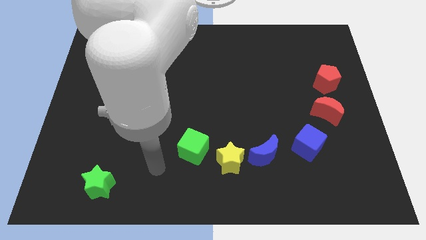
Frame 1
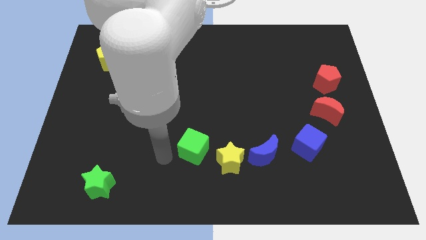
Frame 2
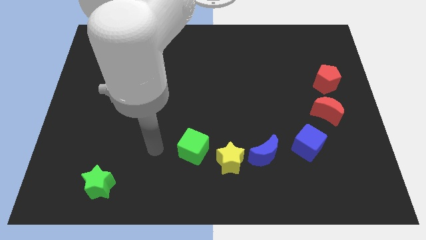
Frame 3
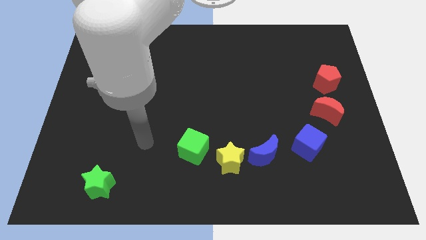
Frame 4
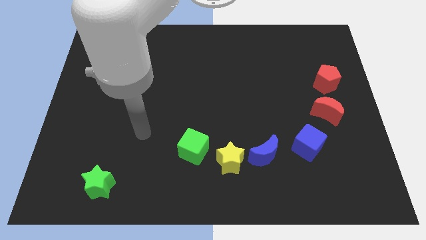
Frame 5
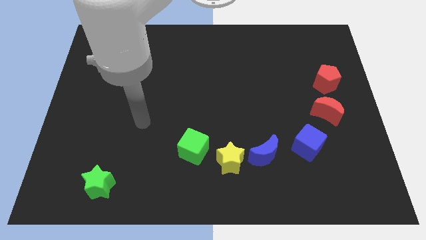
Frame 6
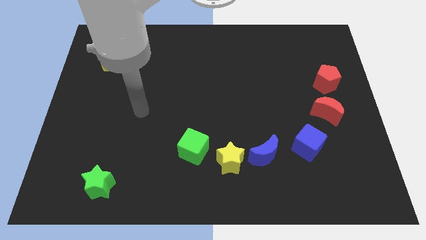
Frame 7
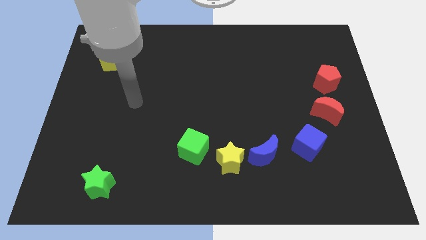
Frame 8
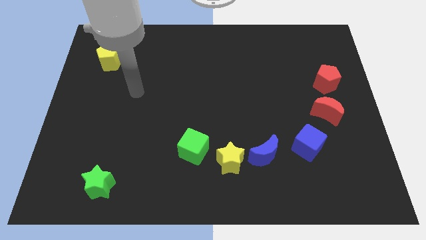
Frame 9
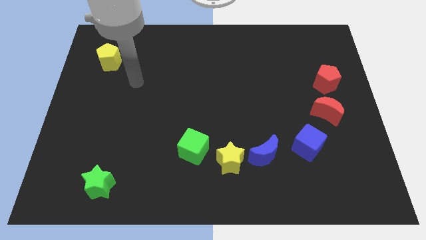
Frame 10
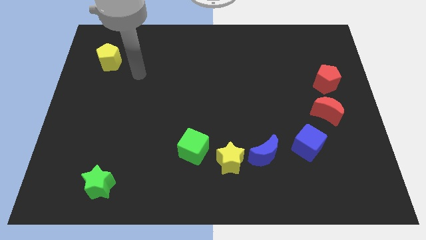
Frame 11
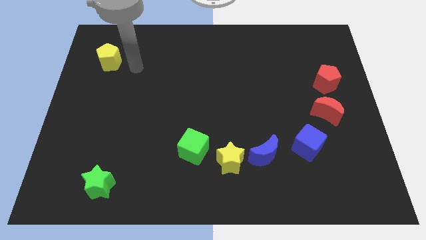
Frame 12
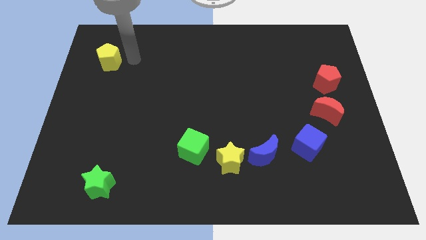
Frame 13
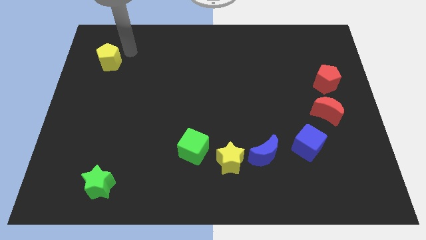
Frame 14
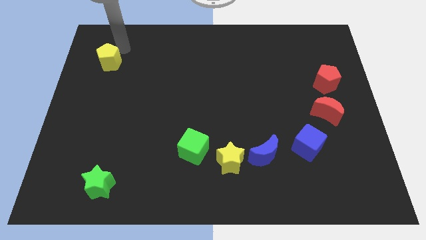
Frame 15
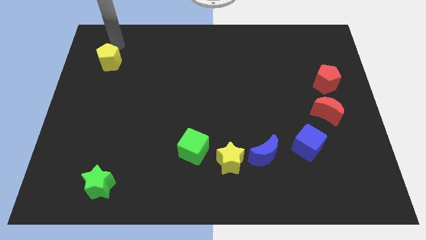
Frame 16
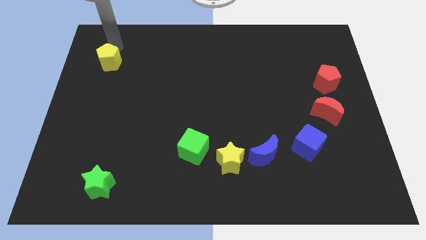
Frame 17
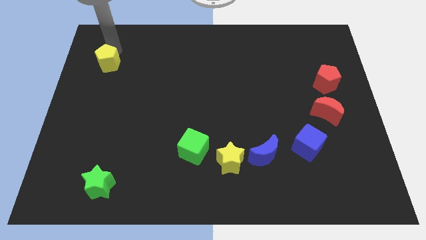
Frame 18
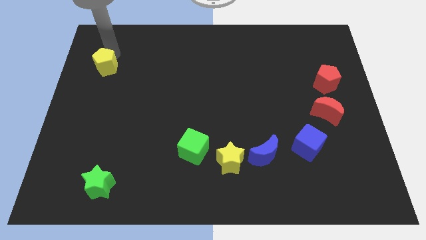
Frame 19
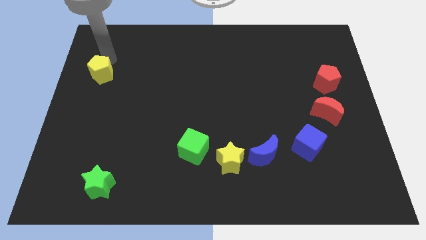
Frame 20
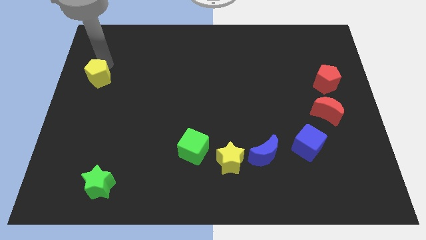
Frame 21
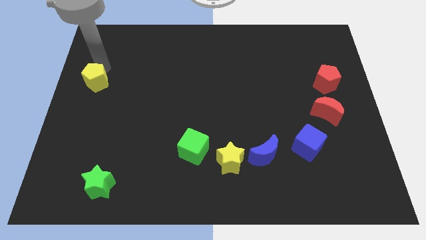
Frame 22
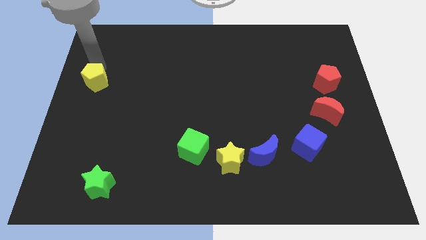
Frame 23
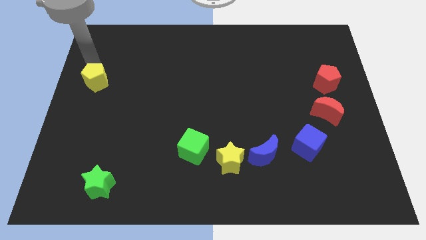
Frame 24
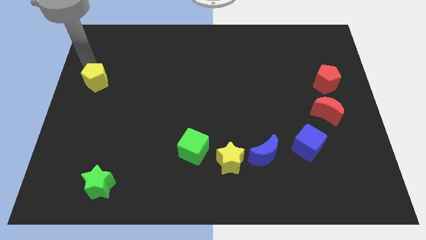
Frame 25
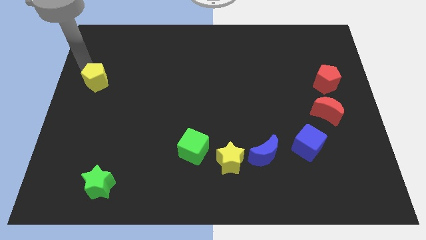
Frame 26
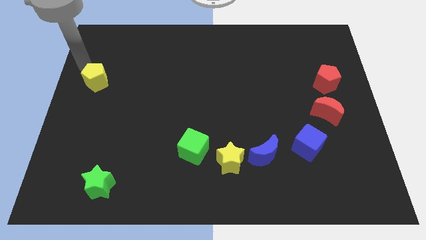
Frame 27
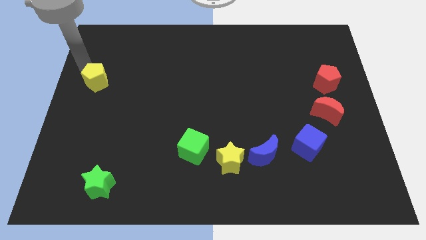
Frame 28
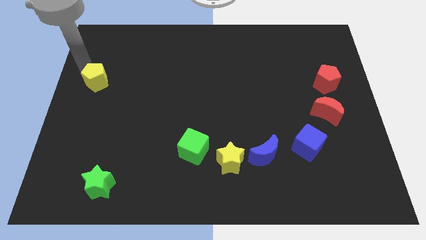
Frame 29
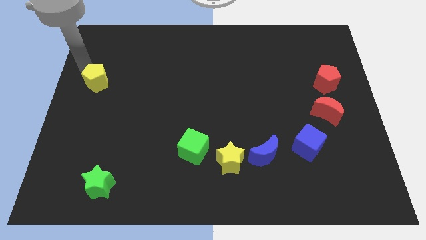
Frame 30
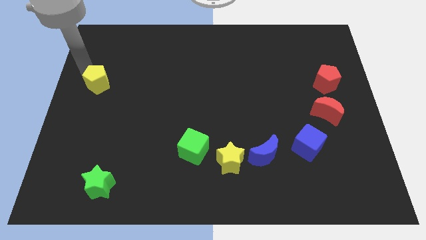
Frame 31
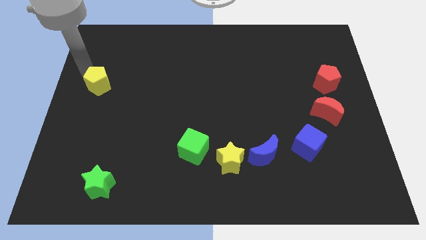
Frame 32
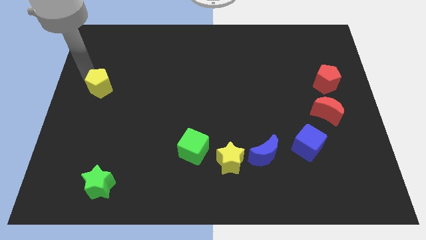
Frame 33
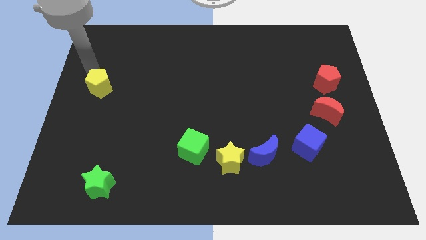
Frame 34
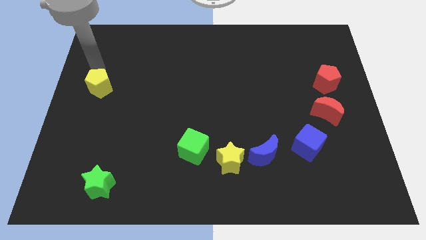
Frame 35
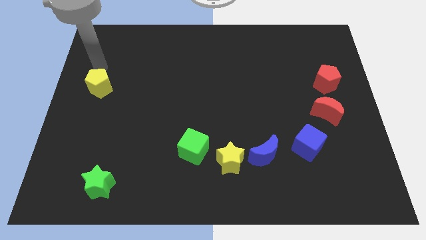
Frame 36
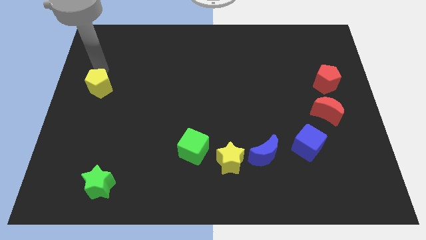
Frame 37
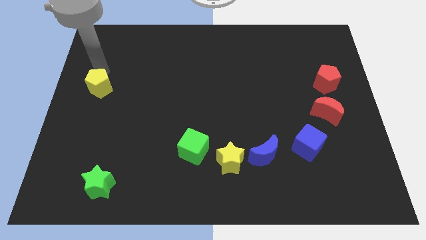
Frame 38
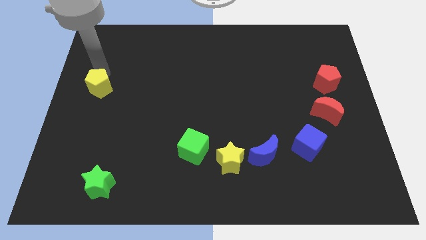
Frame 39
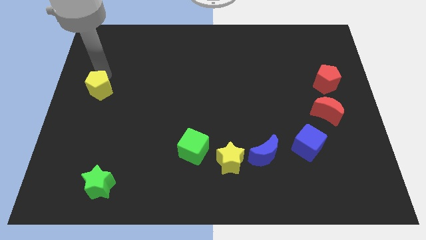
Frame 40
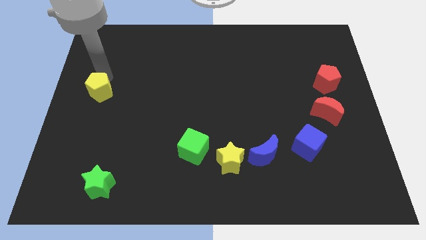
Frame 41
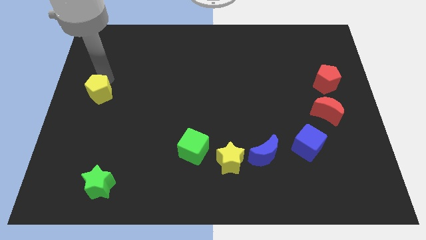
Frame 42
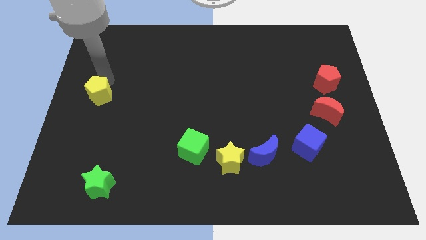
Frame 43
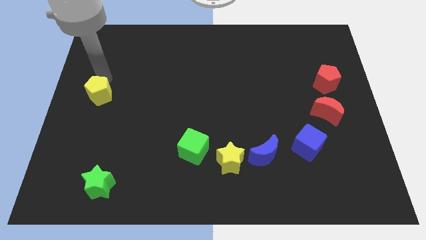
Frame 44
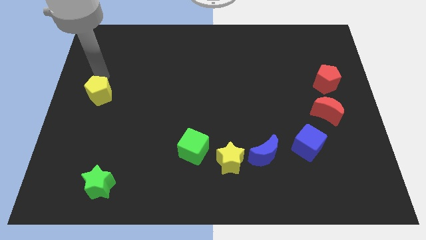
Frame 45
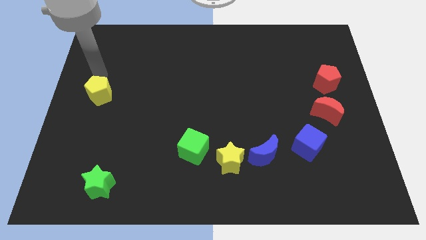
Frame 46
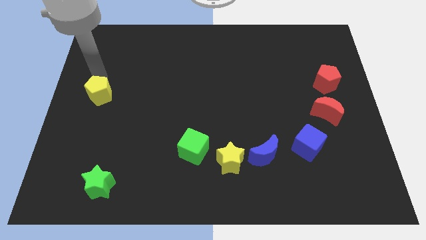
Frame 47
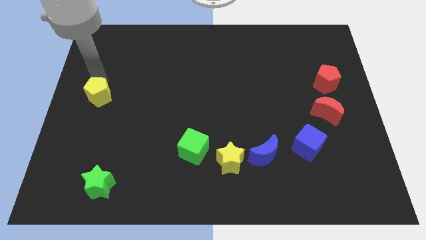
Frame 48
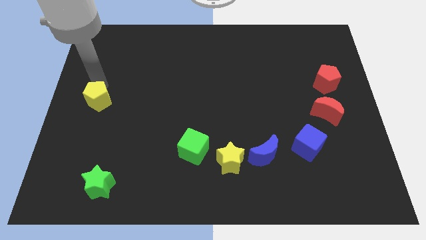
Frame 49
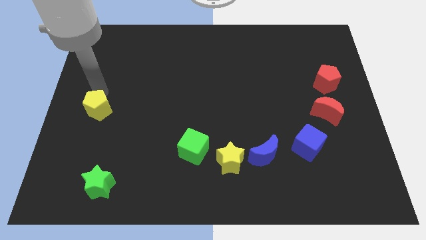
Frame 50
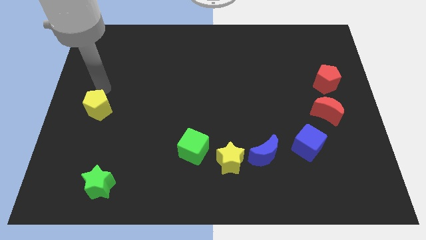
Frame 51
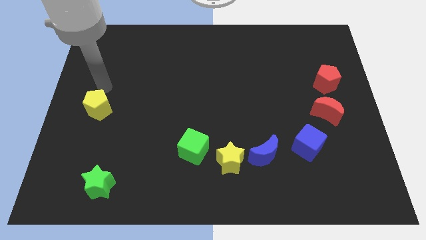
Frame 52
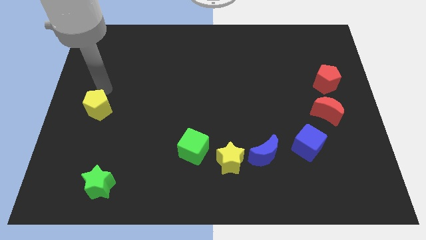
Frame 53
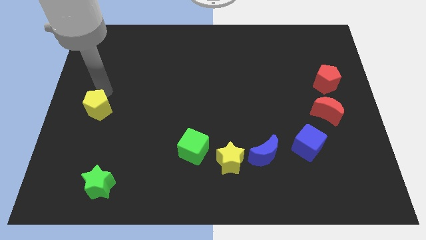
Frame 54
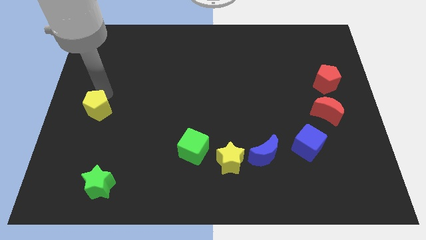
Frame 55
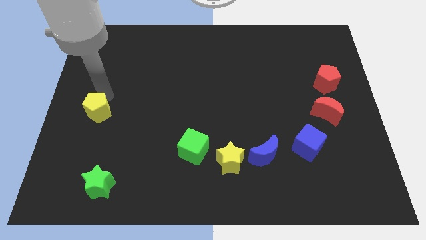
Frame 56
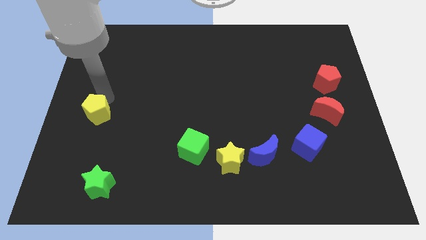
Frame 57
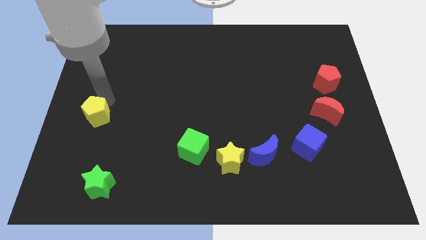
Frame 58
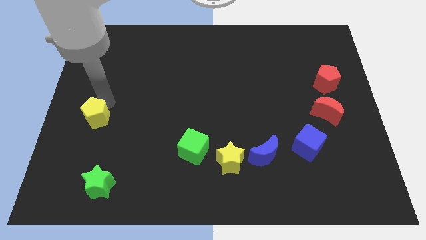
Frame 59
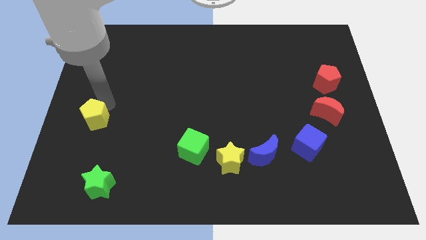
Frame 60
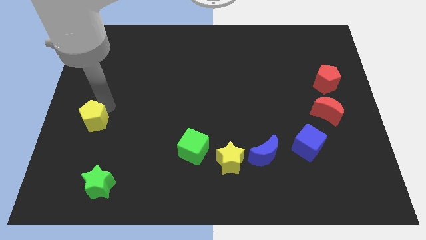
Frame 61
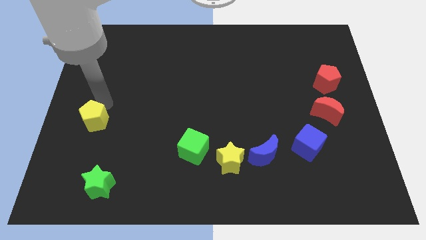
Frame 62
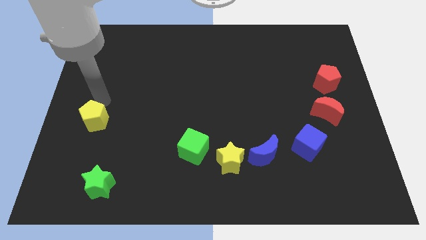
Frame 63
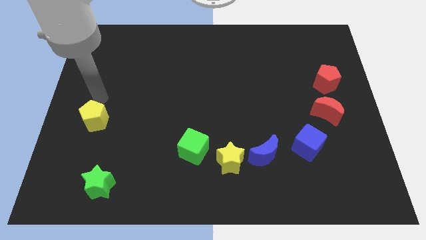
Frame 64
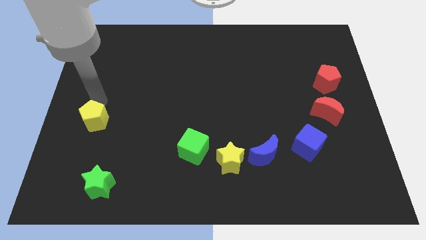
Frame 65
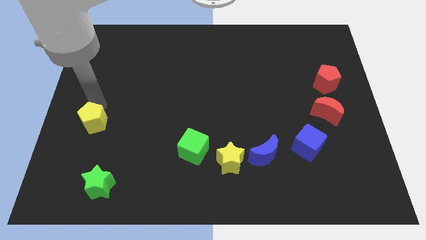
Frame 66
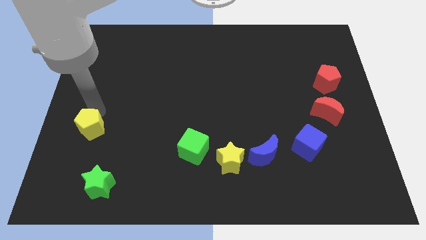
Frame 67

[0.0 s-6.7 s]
push the yellow pentagon downwards

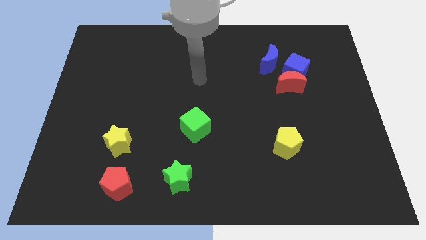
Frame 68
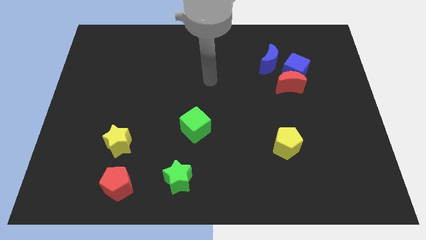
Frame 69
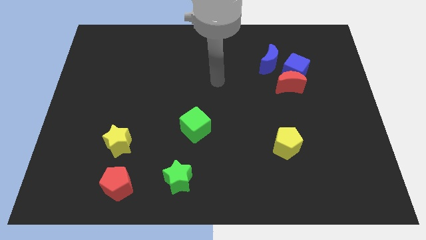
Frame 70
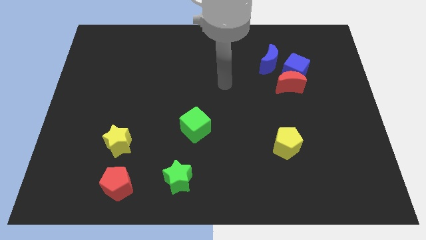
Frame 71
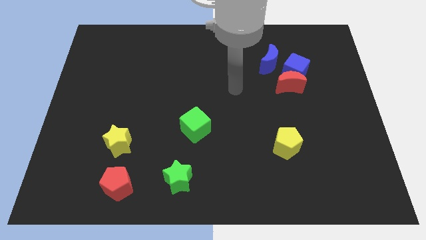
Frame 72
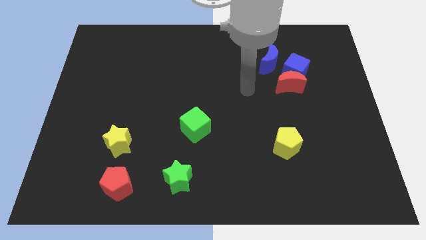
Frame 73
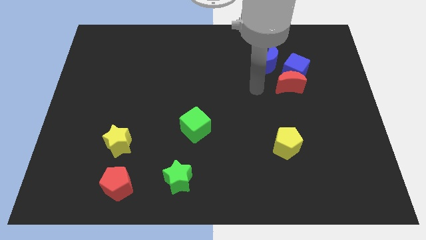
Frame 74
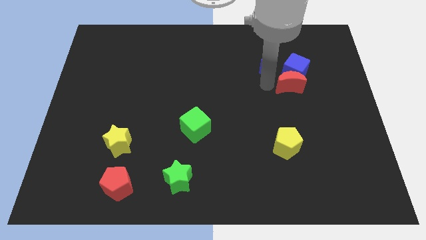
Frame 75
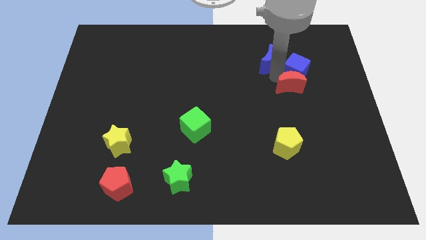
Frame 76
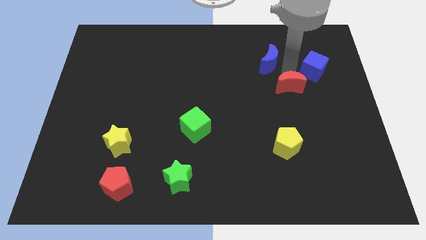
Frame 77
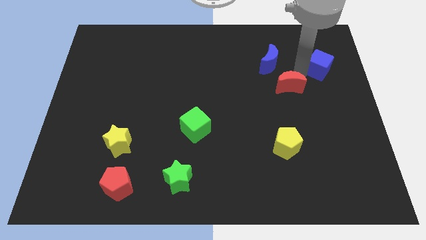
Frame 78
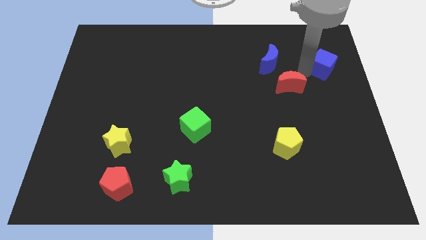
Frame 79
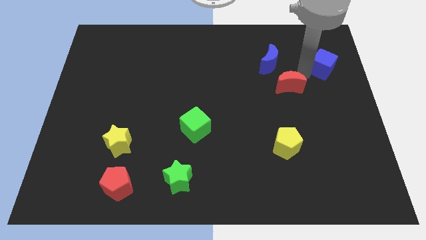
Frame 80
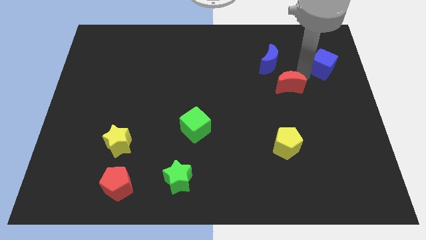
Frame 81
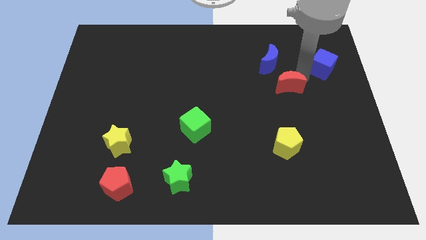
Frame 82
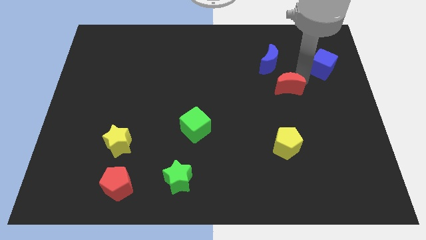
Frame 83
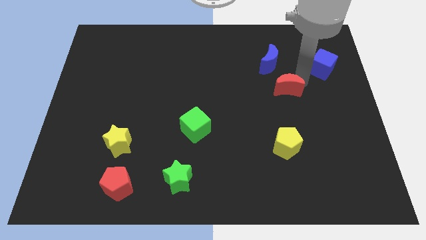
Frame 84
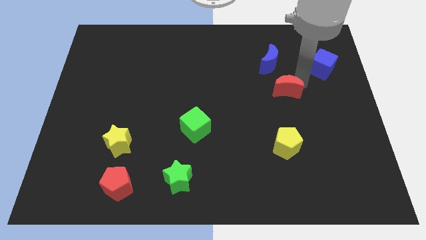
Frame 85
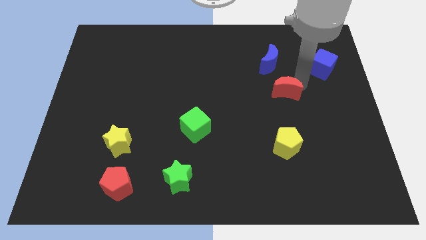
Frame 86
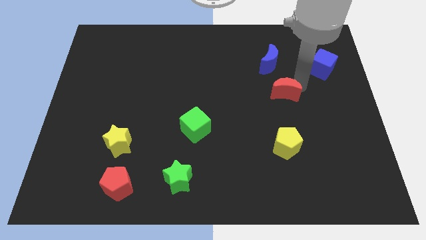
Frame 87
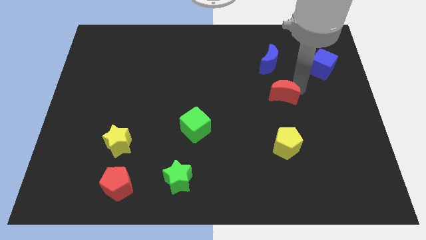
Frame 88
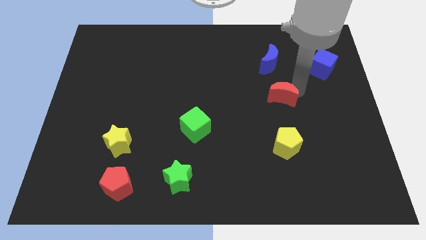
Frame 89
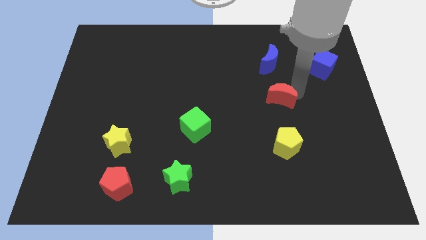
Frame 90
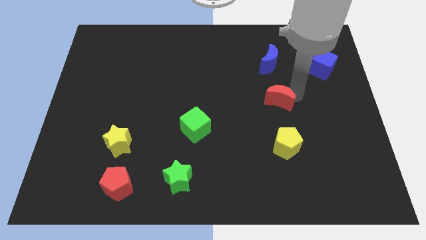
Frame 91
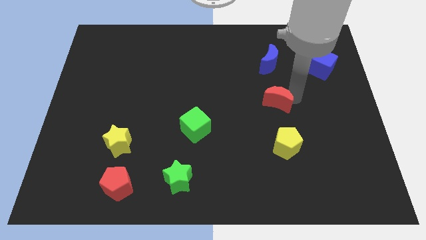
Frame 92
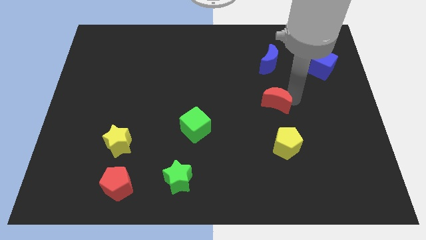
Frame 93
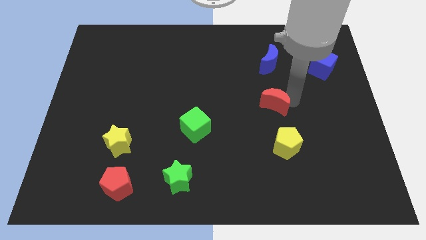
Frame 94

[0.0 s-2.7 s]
push the red moon downwards and then left slightly
